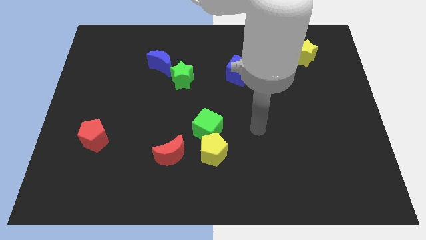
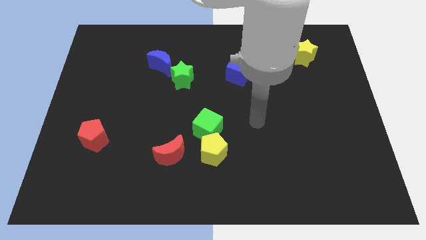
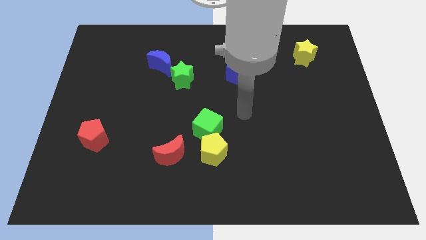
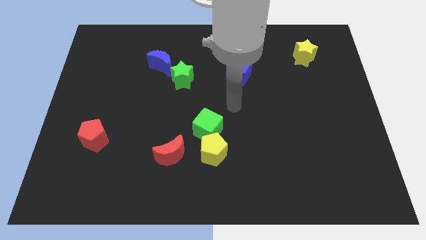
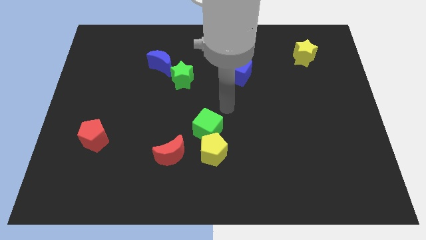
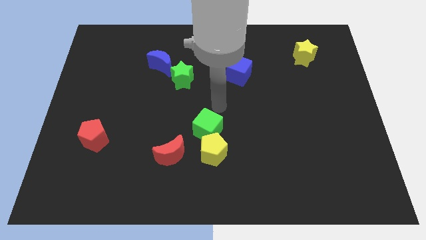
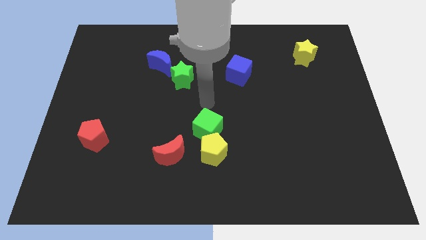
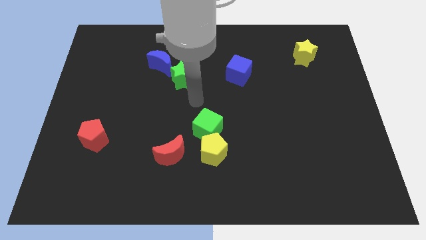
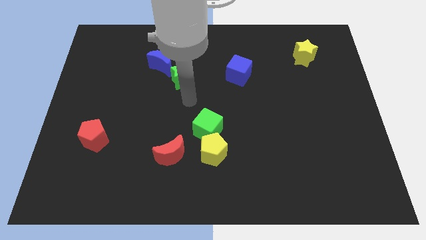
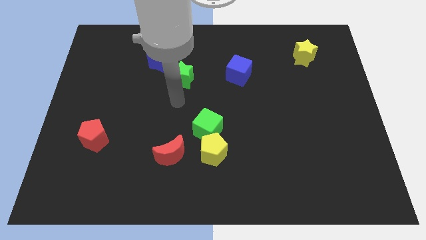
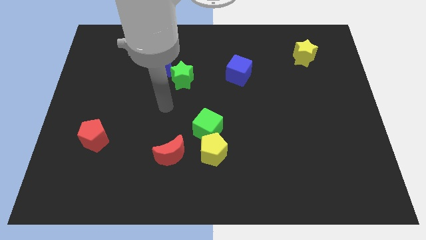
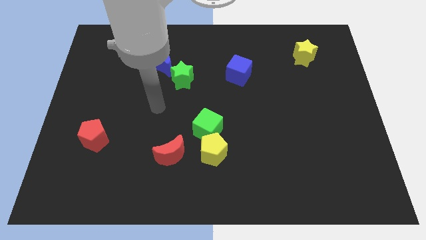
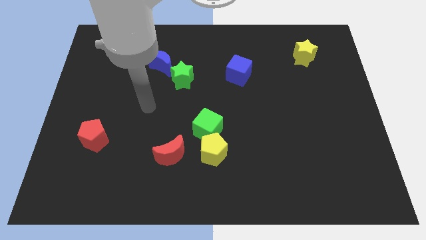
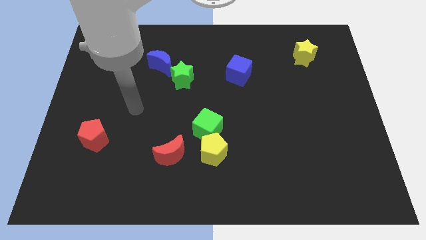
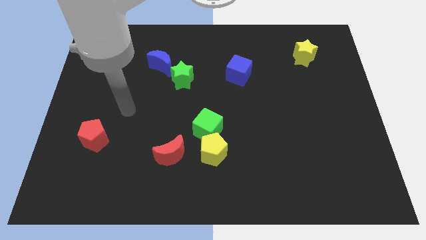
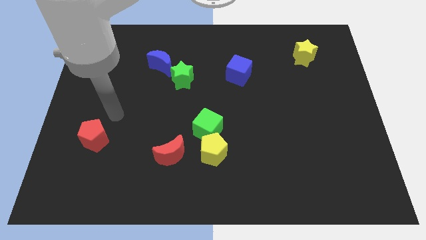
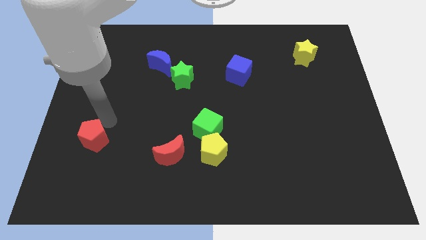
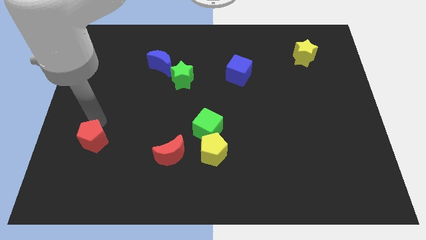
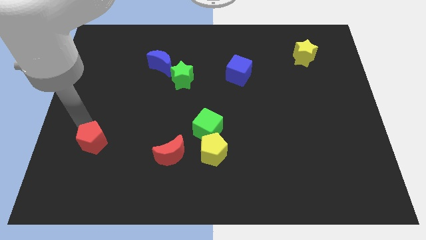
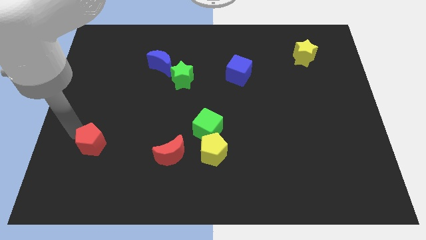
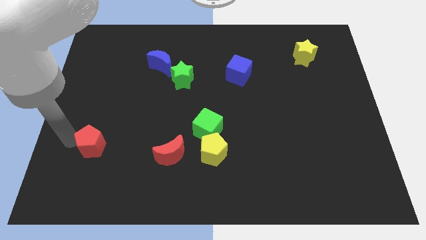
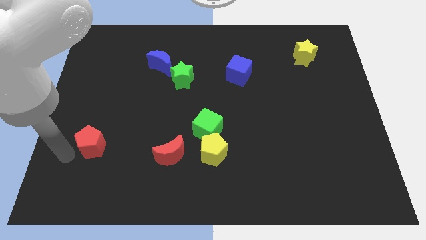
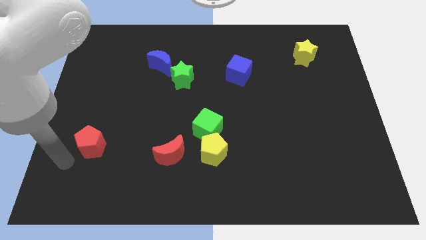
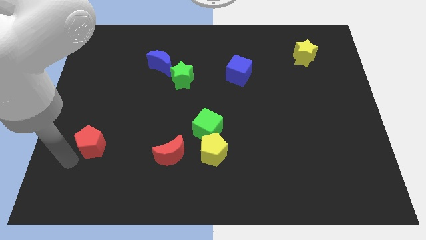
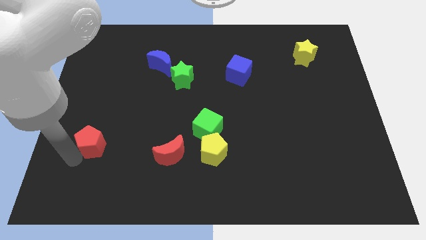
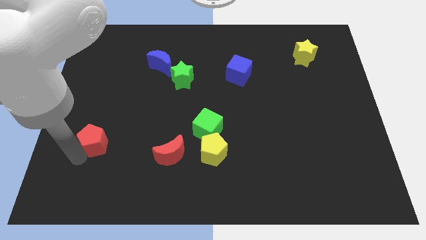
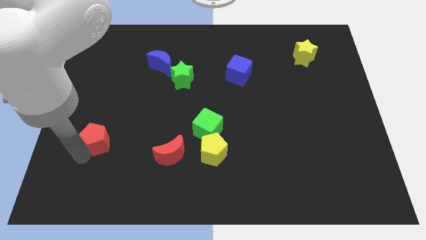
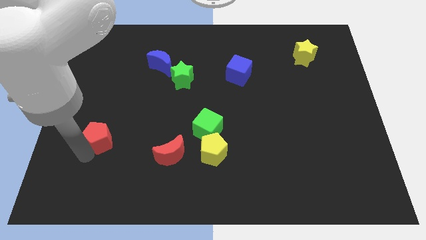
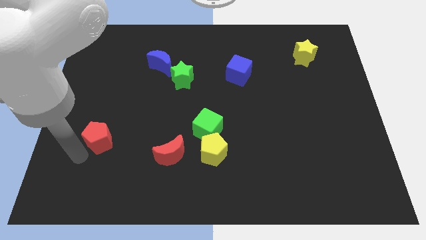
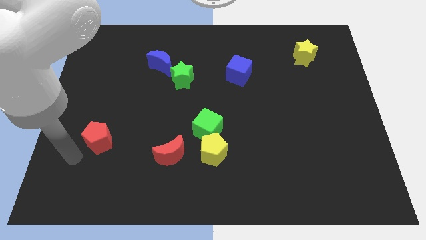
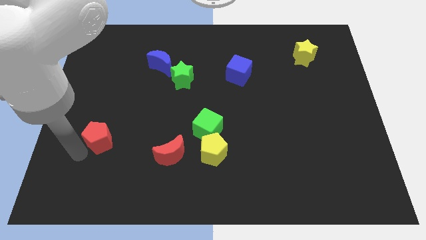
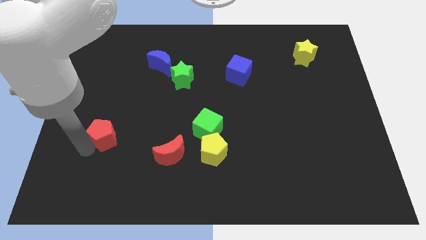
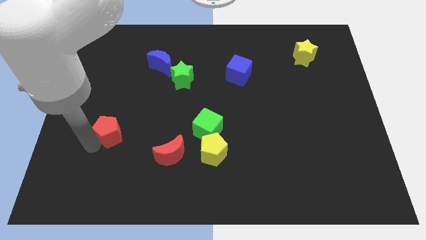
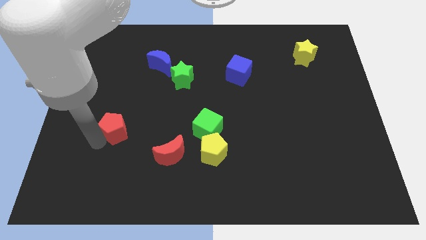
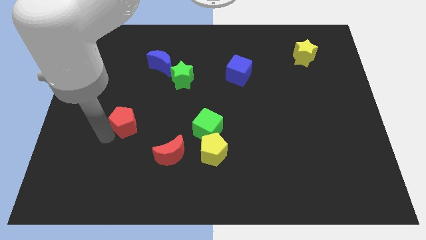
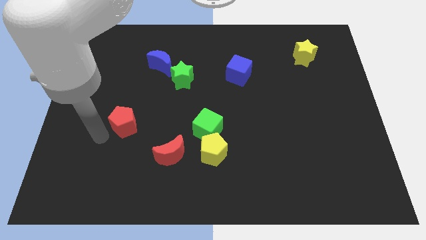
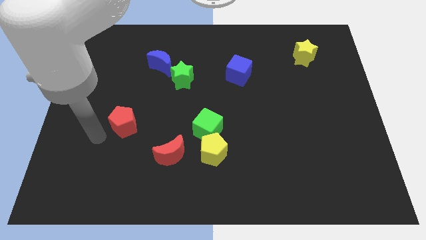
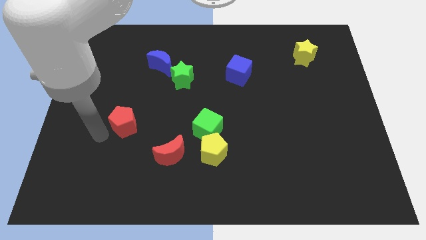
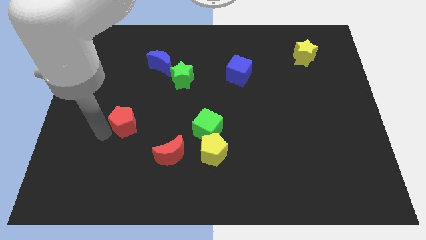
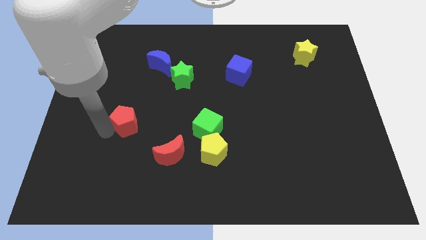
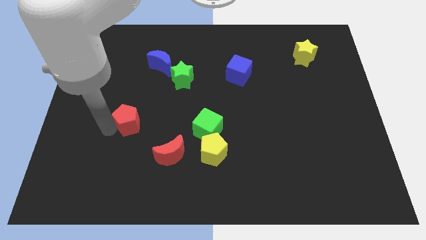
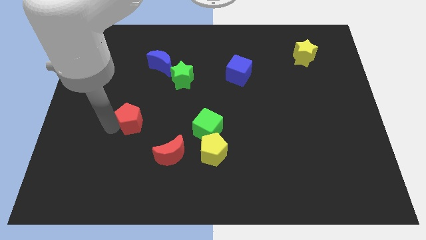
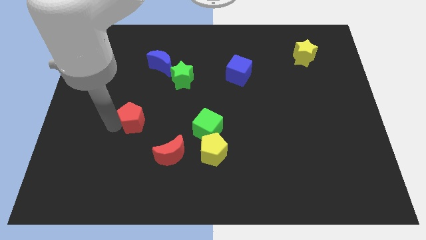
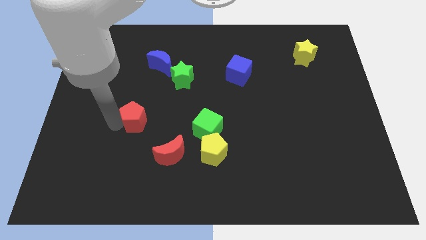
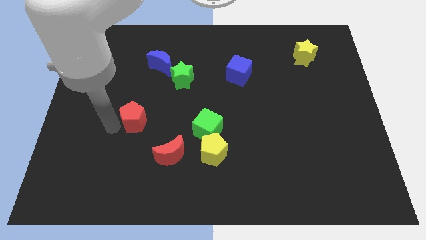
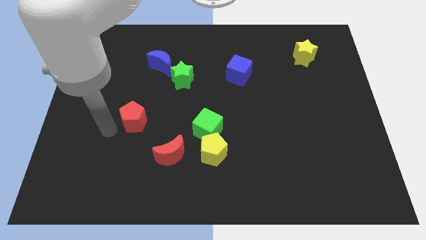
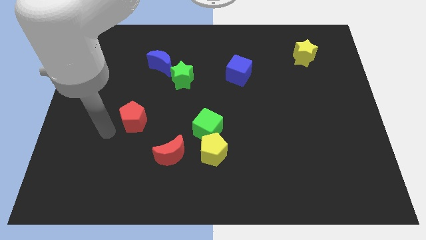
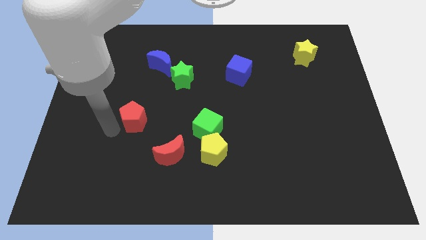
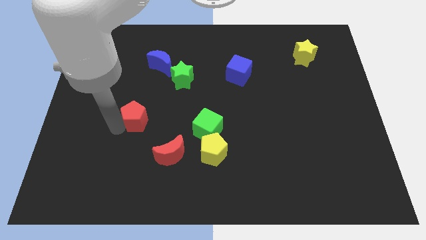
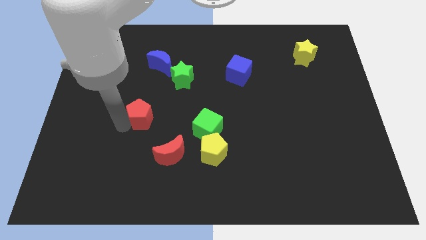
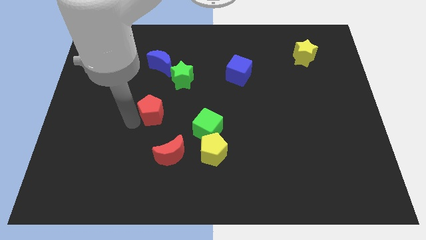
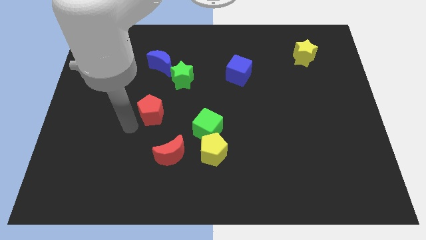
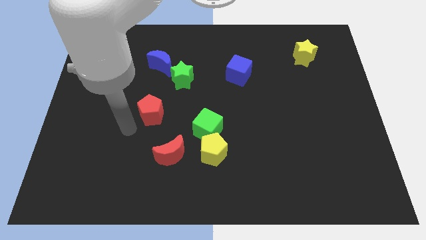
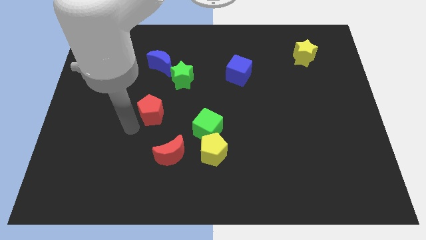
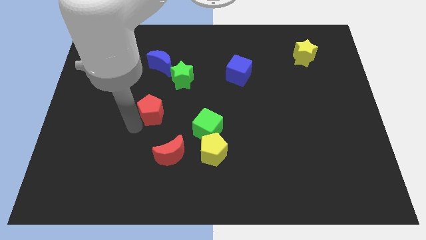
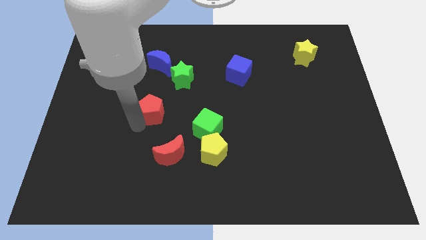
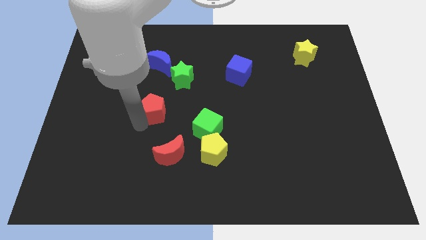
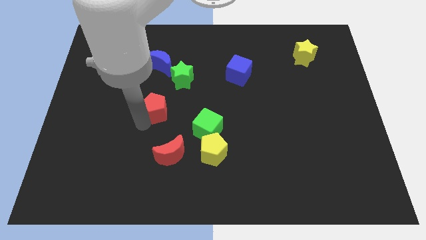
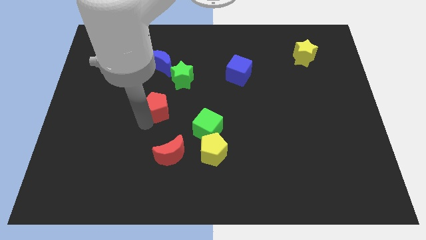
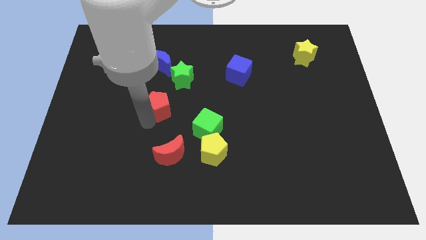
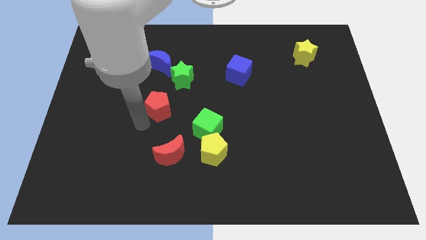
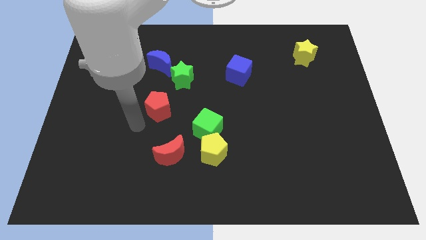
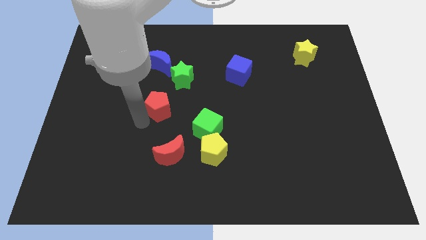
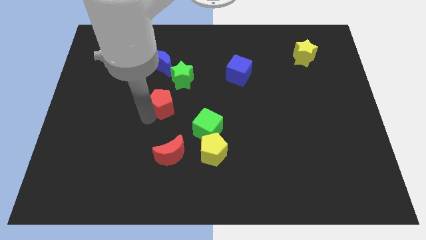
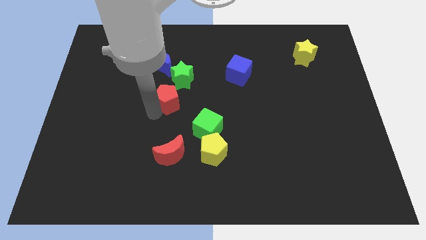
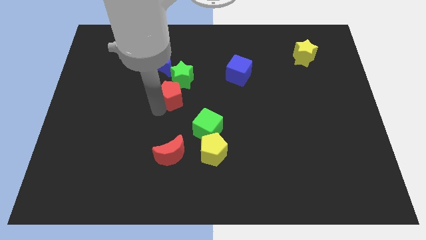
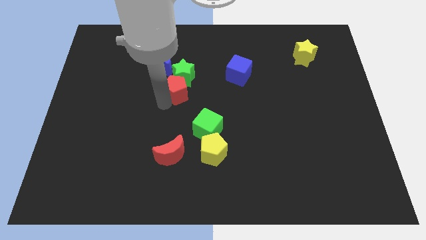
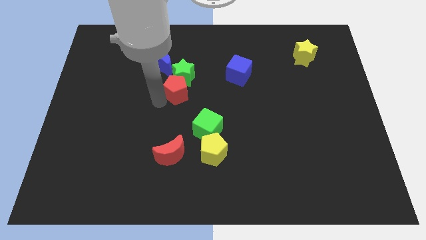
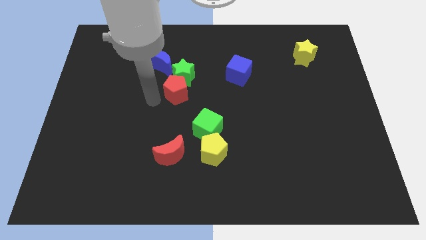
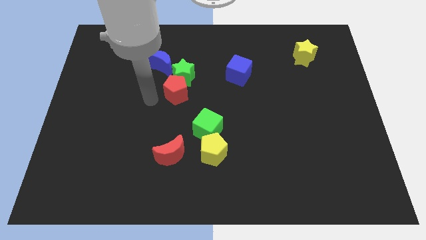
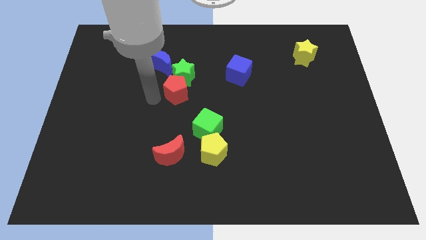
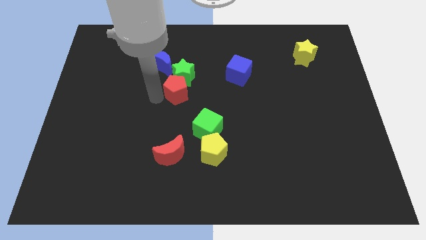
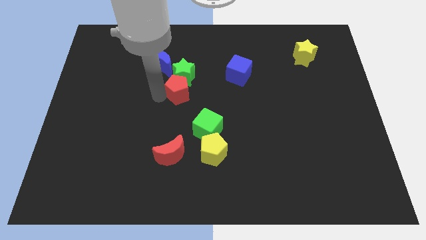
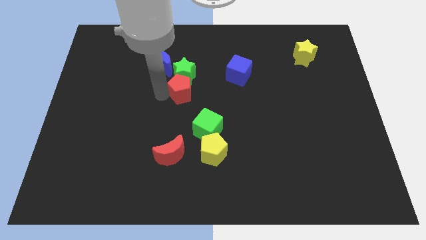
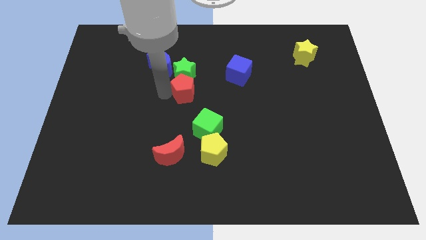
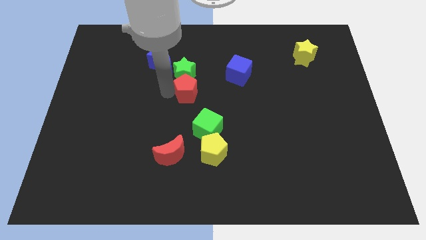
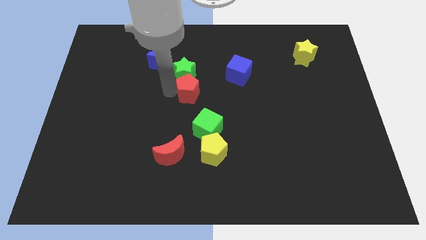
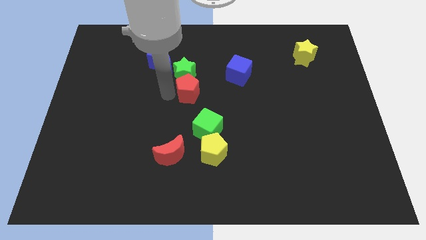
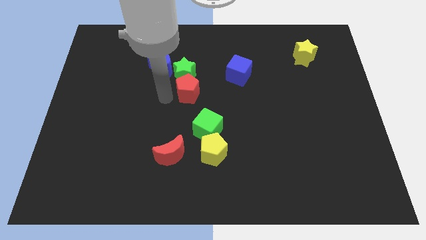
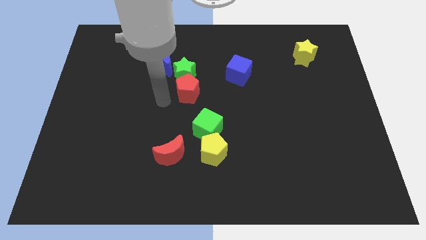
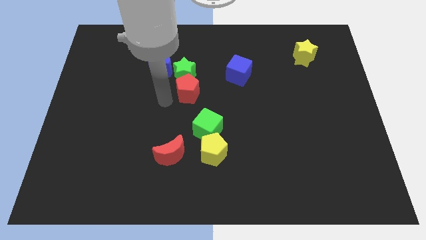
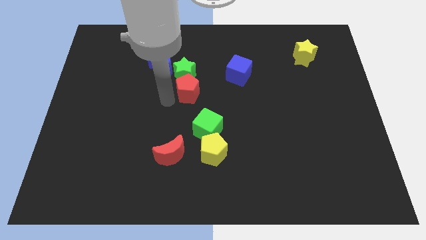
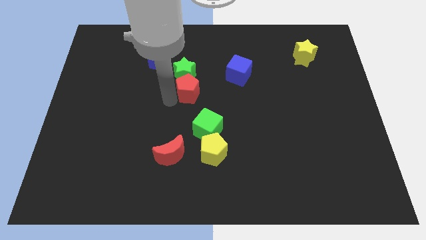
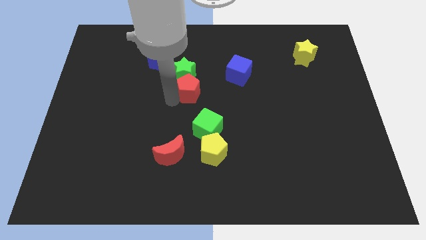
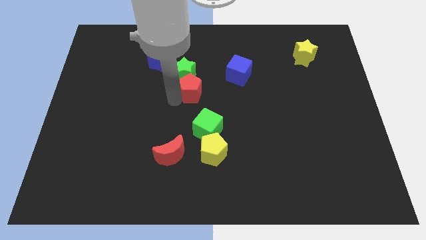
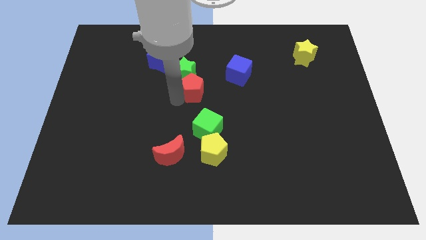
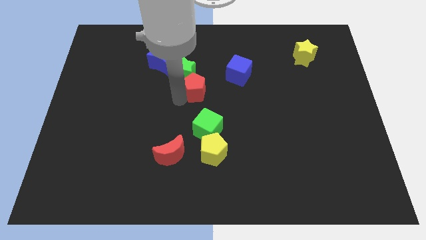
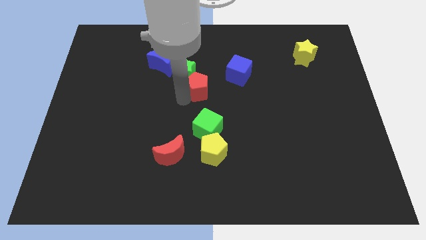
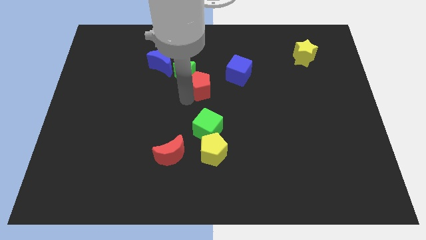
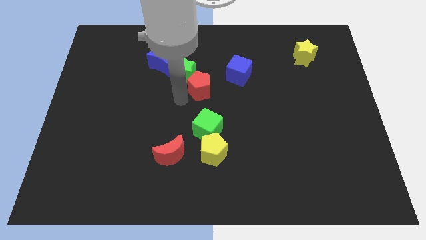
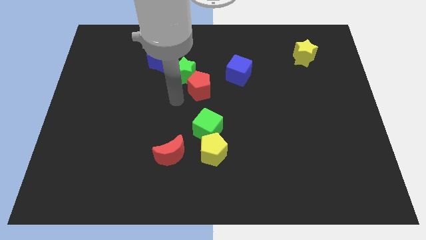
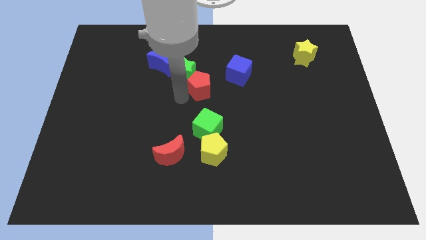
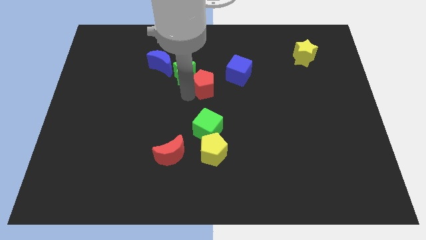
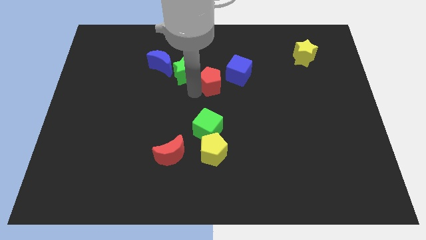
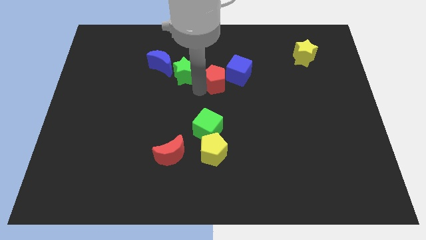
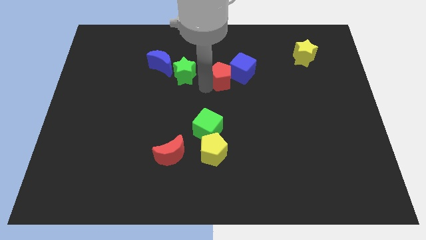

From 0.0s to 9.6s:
push the red pentagon close to the blue cube
